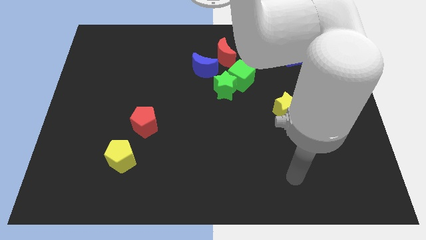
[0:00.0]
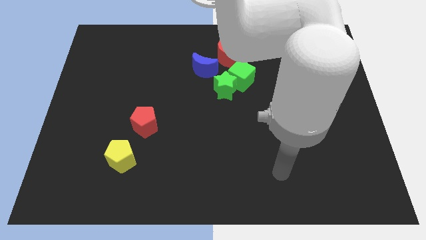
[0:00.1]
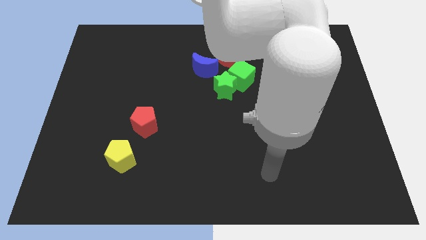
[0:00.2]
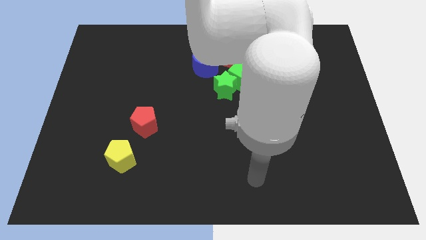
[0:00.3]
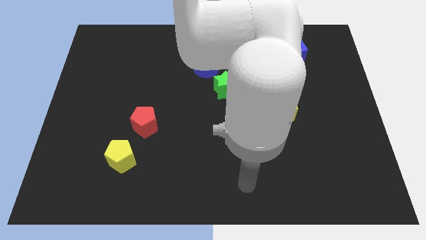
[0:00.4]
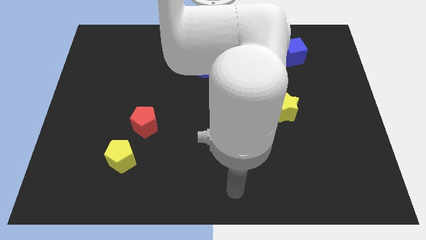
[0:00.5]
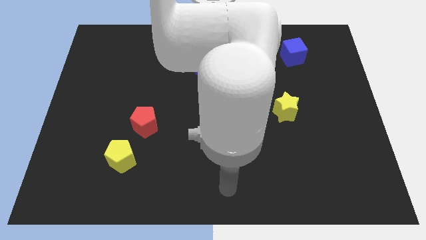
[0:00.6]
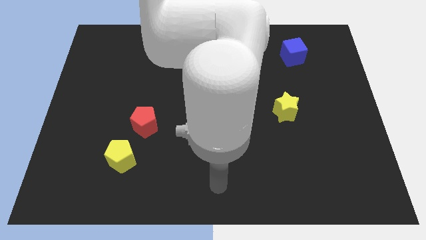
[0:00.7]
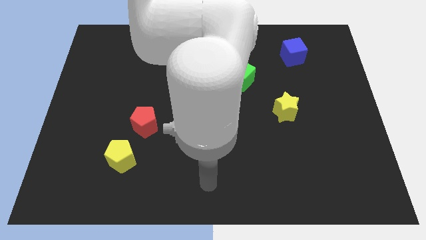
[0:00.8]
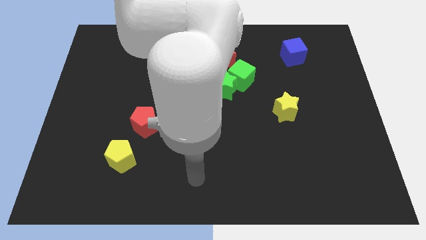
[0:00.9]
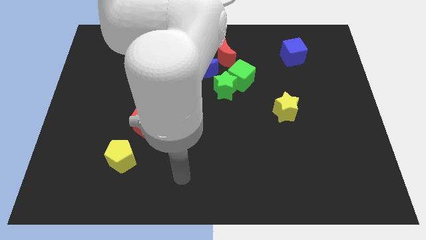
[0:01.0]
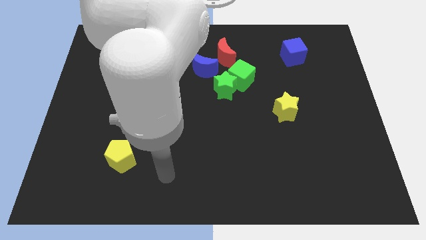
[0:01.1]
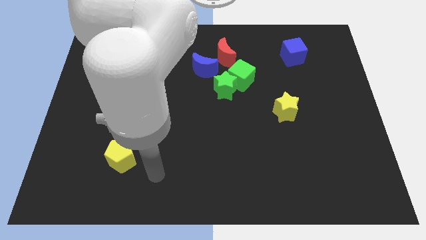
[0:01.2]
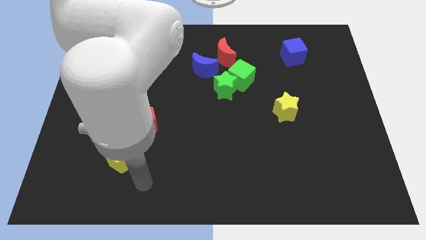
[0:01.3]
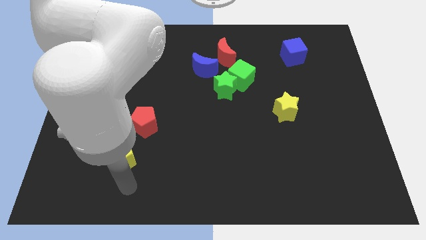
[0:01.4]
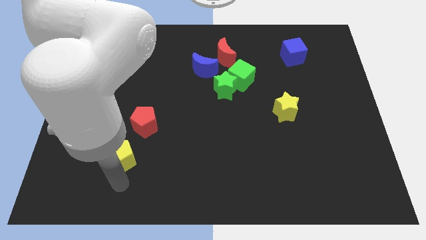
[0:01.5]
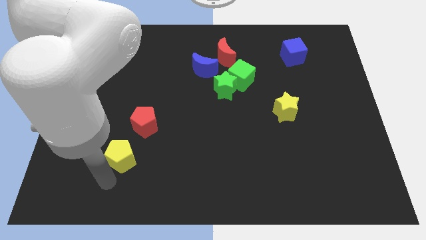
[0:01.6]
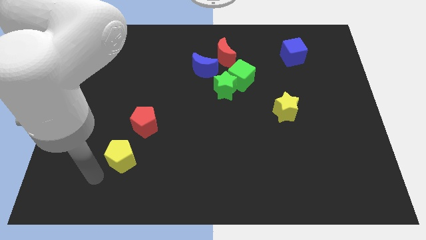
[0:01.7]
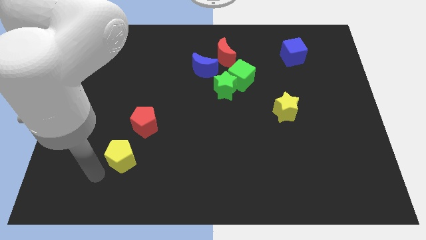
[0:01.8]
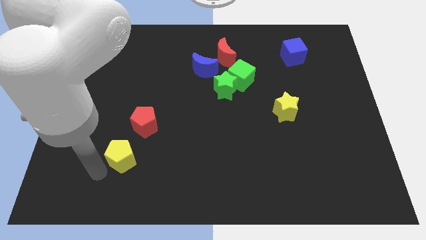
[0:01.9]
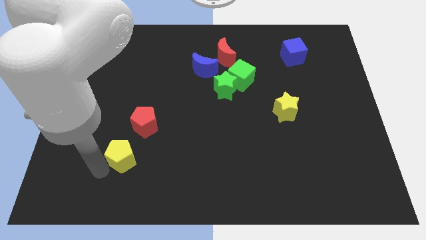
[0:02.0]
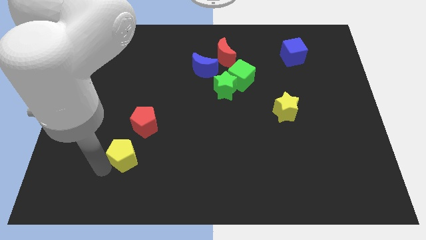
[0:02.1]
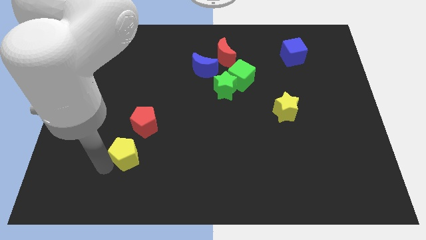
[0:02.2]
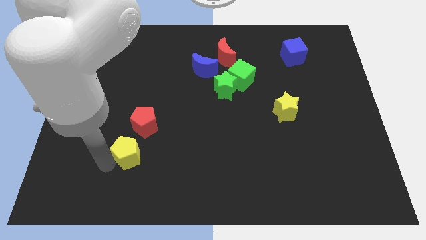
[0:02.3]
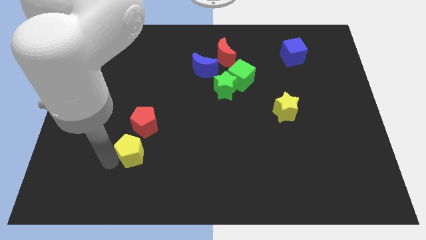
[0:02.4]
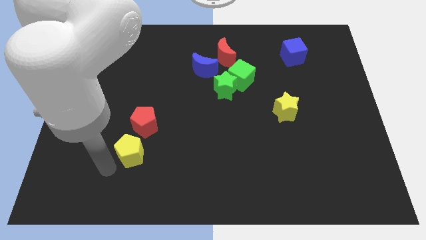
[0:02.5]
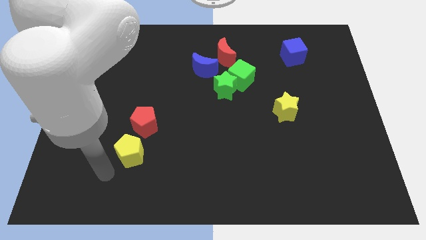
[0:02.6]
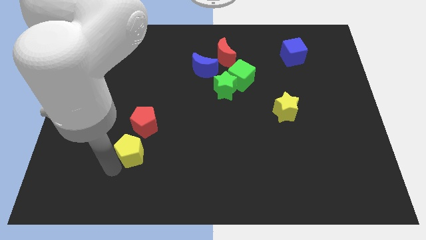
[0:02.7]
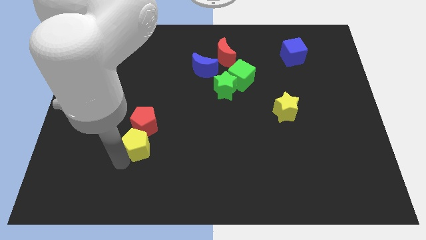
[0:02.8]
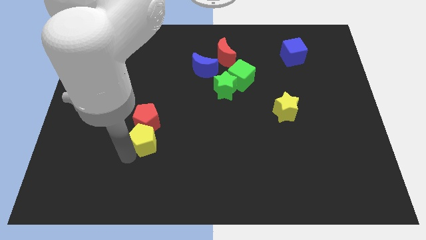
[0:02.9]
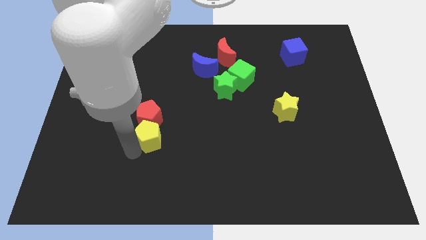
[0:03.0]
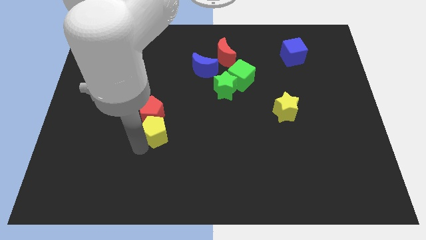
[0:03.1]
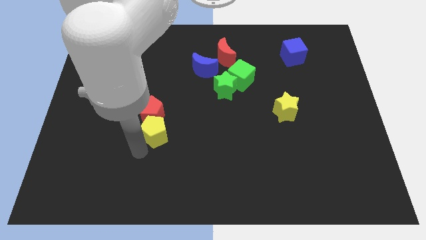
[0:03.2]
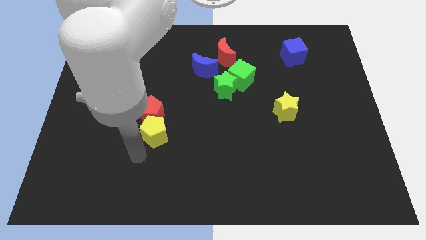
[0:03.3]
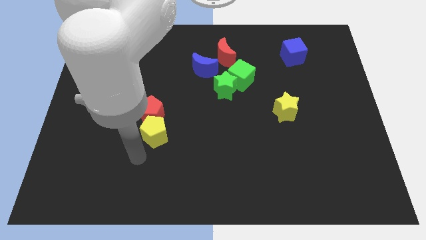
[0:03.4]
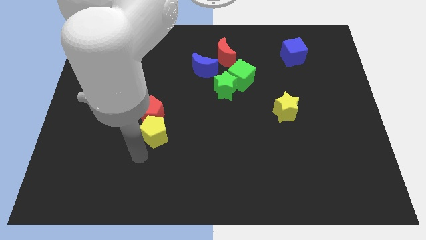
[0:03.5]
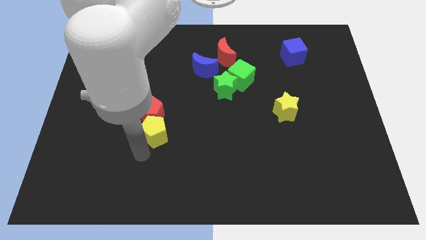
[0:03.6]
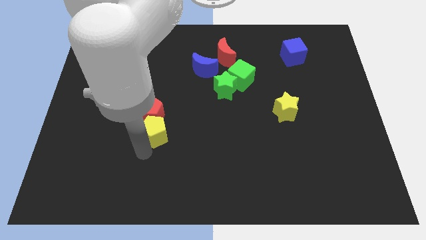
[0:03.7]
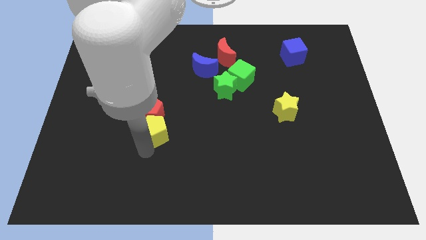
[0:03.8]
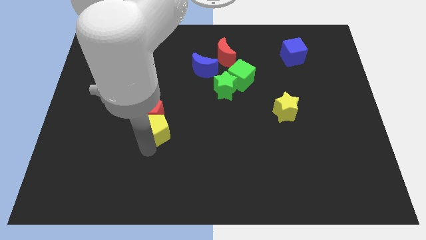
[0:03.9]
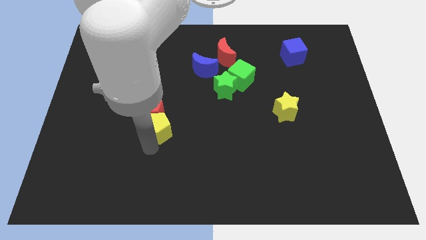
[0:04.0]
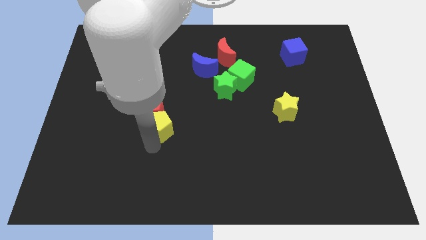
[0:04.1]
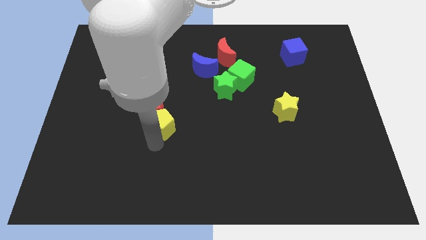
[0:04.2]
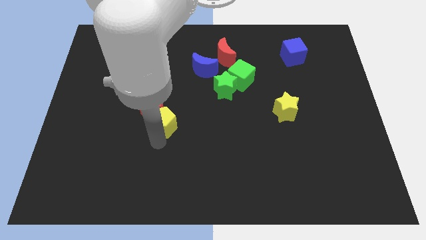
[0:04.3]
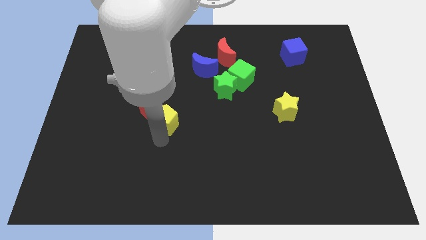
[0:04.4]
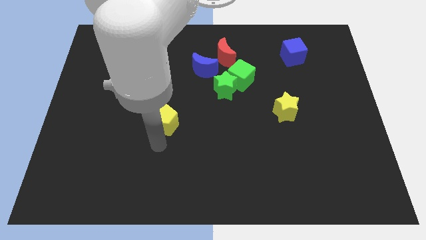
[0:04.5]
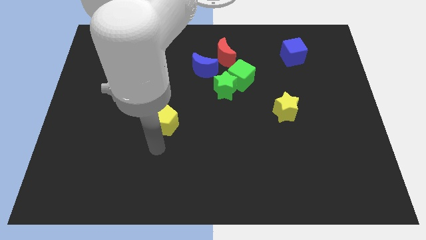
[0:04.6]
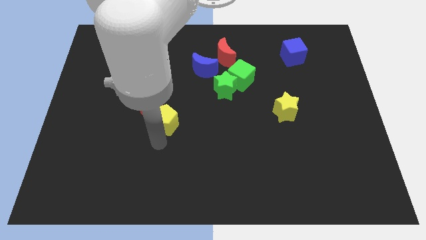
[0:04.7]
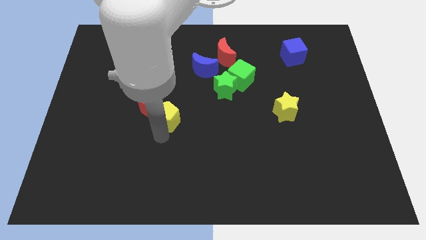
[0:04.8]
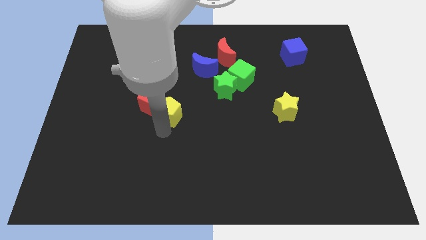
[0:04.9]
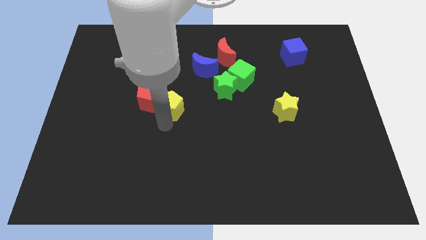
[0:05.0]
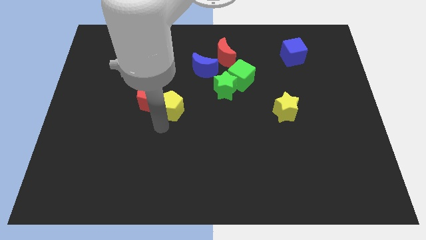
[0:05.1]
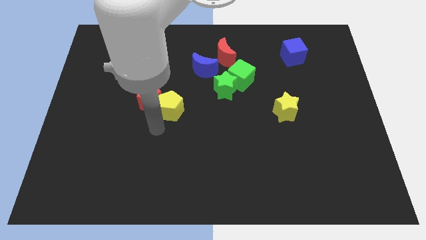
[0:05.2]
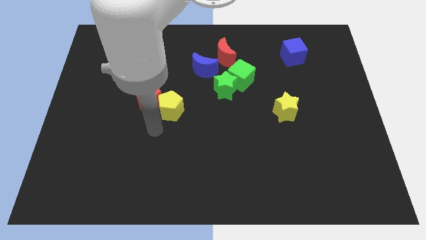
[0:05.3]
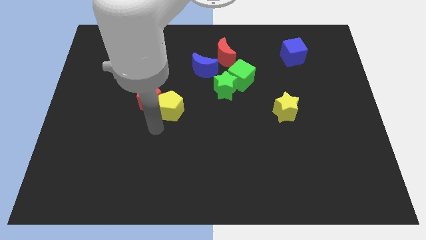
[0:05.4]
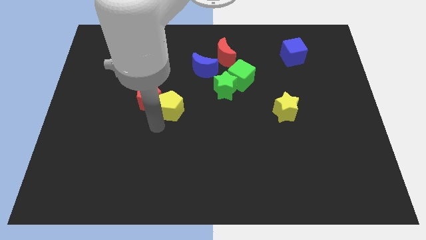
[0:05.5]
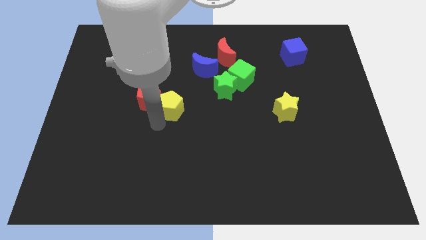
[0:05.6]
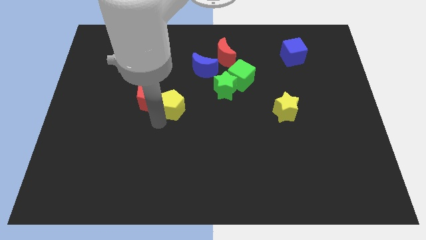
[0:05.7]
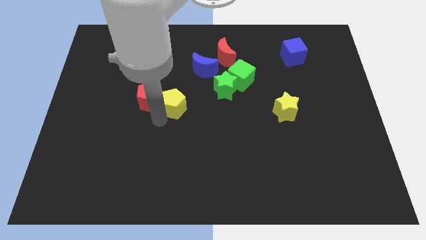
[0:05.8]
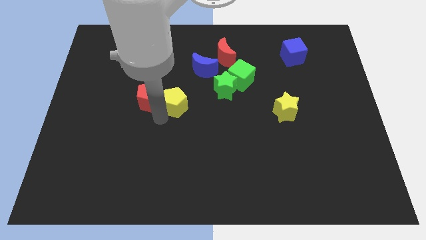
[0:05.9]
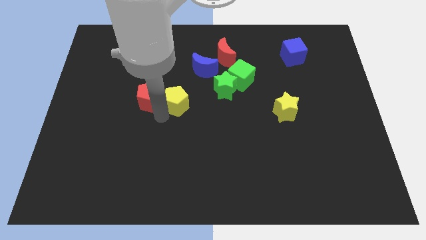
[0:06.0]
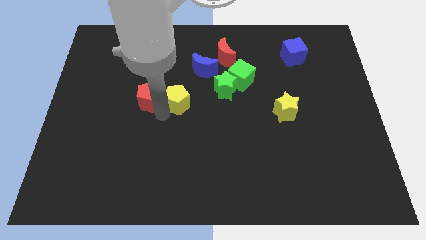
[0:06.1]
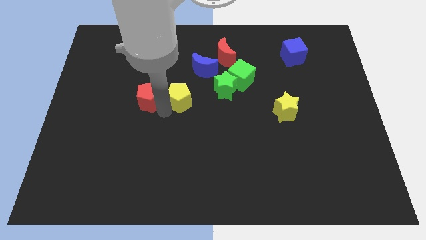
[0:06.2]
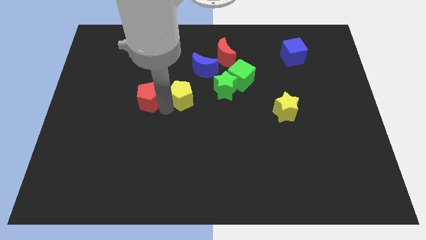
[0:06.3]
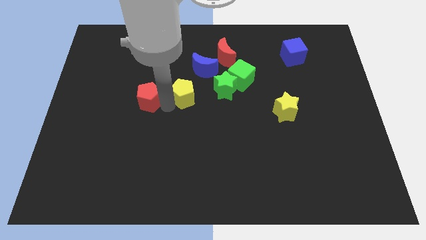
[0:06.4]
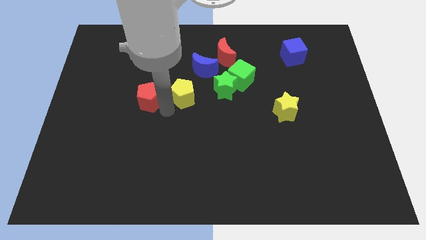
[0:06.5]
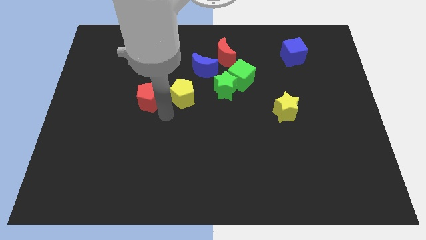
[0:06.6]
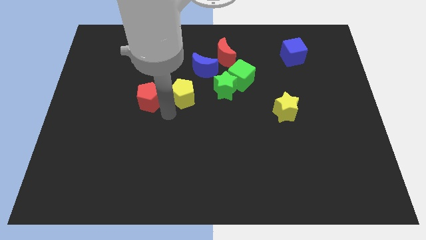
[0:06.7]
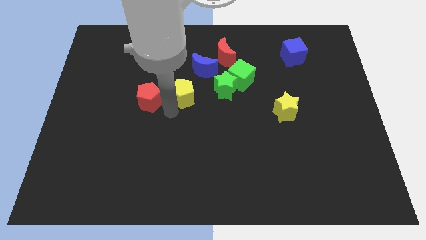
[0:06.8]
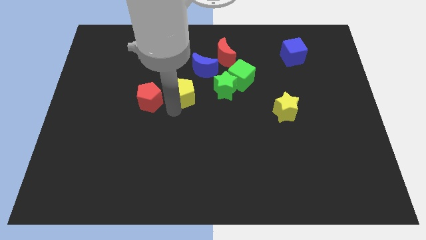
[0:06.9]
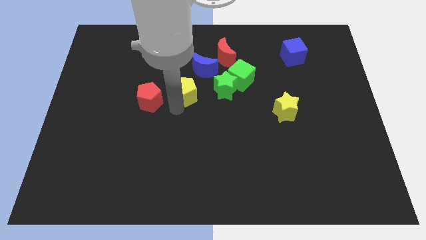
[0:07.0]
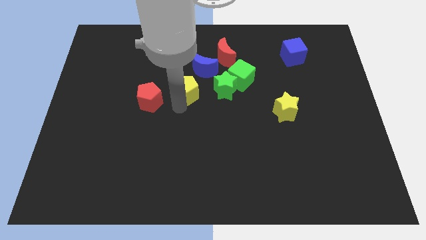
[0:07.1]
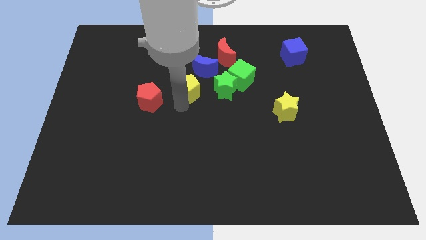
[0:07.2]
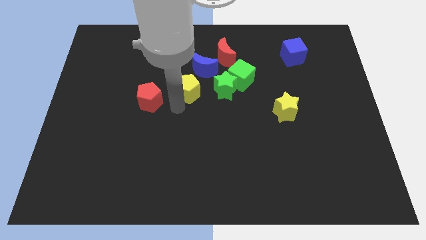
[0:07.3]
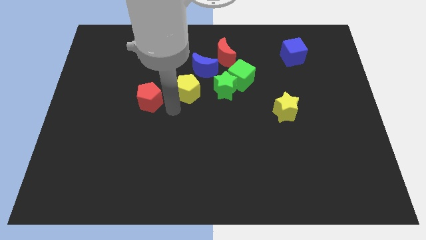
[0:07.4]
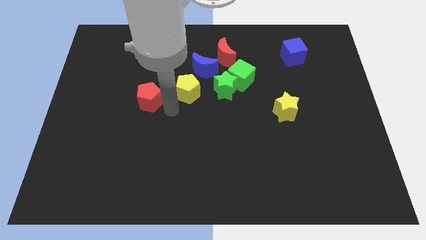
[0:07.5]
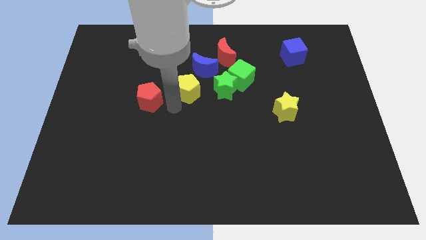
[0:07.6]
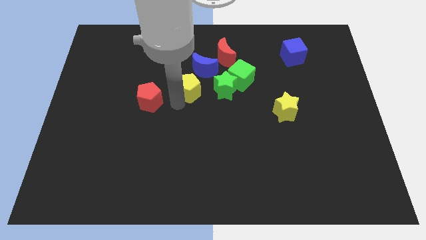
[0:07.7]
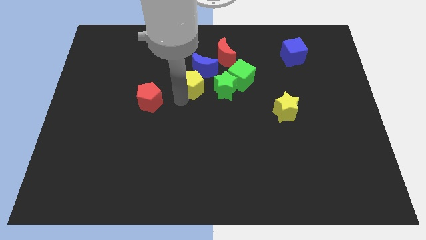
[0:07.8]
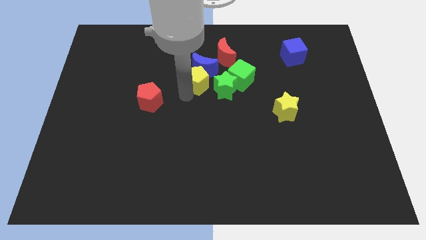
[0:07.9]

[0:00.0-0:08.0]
slide the yellow pentagon to the blue moon
